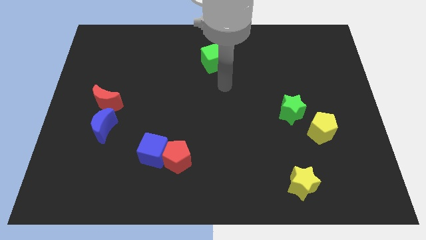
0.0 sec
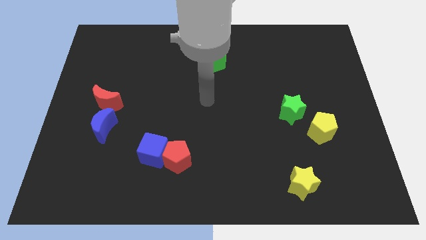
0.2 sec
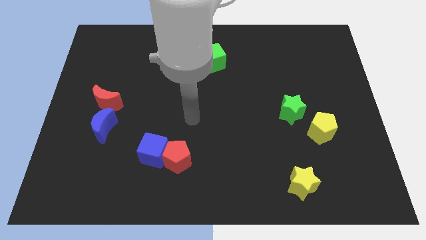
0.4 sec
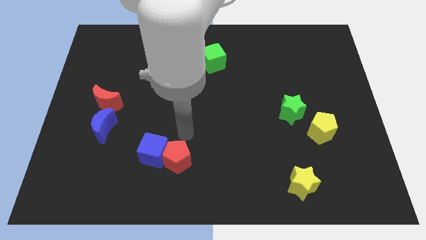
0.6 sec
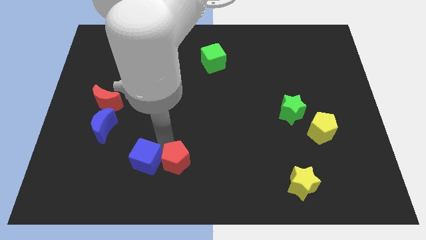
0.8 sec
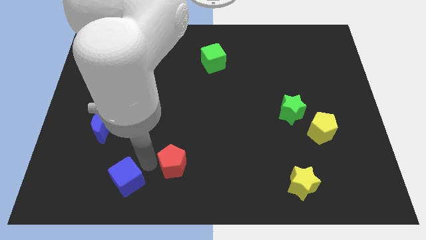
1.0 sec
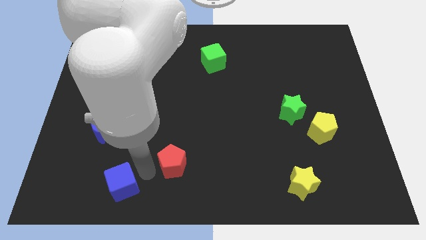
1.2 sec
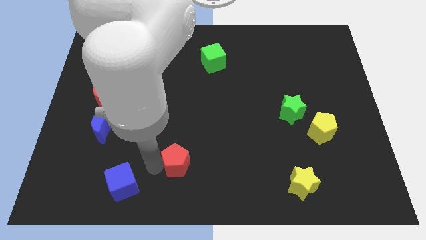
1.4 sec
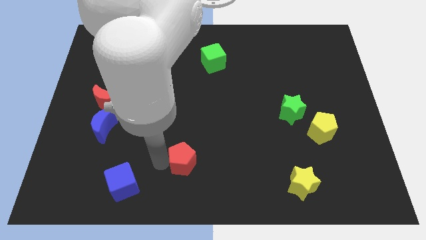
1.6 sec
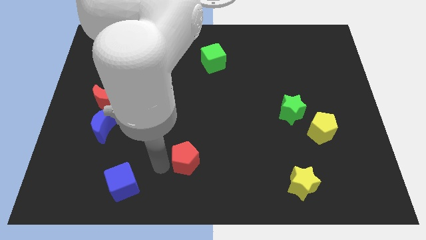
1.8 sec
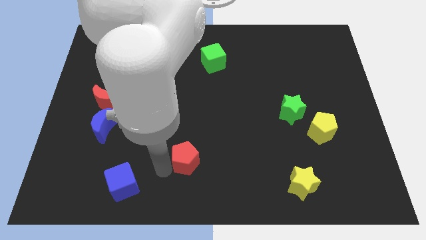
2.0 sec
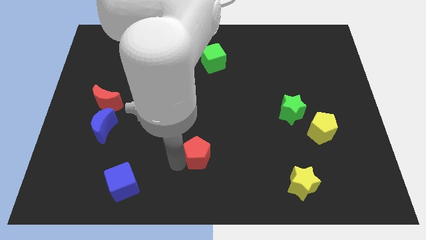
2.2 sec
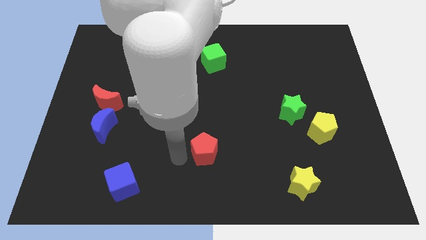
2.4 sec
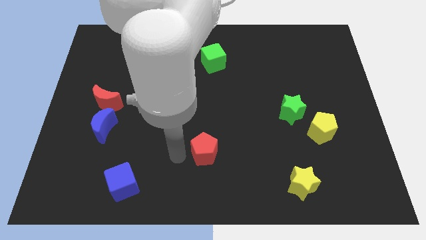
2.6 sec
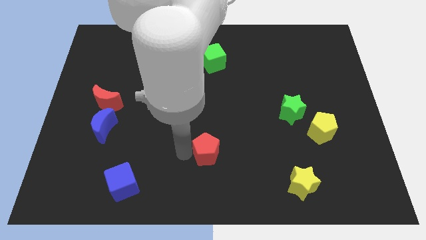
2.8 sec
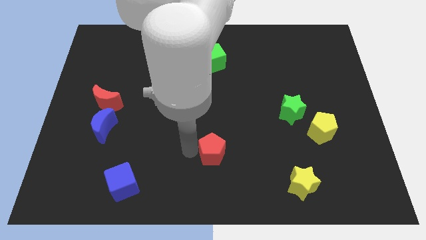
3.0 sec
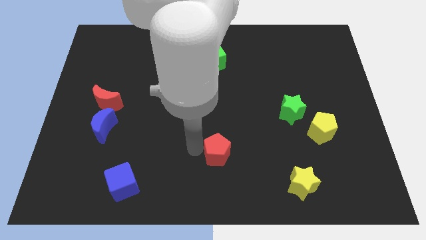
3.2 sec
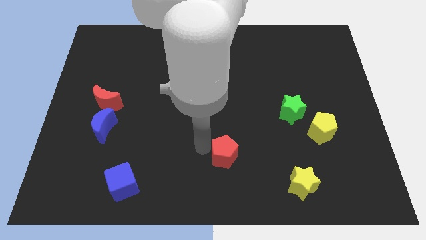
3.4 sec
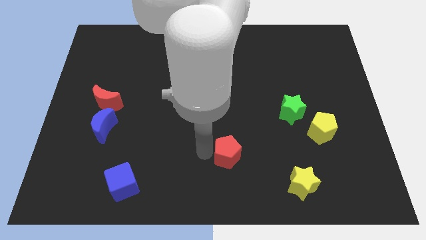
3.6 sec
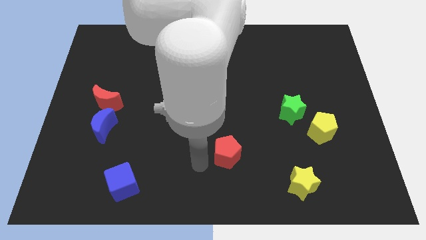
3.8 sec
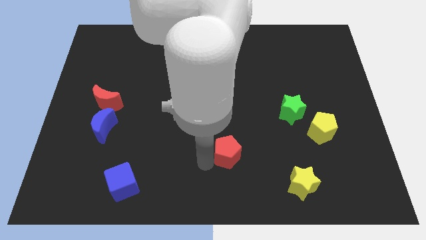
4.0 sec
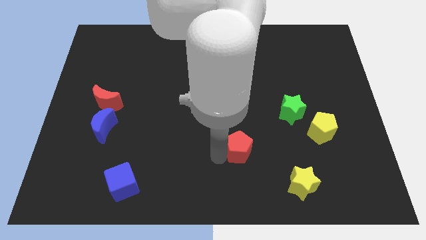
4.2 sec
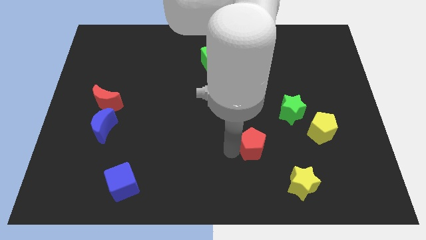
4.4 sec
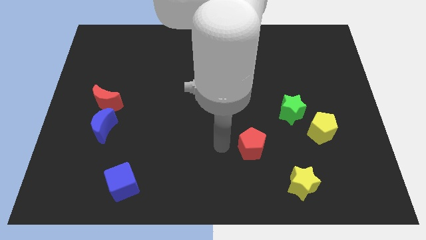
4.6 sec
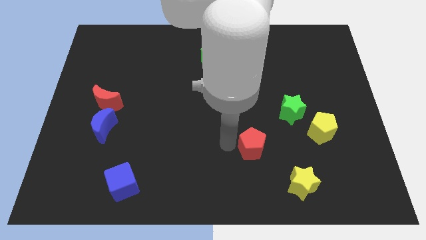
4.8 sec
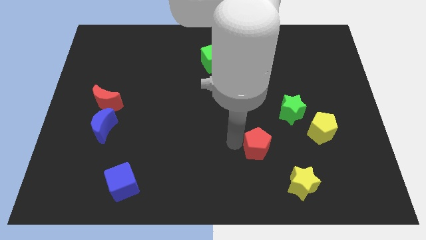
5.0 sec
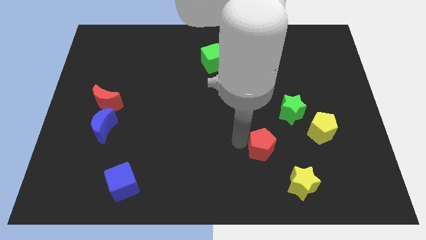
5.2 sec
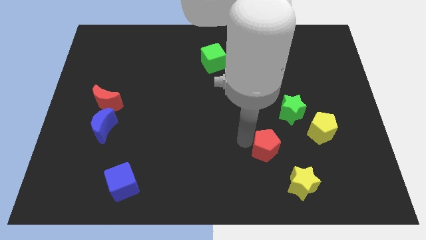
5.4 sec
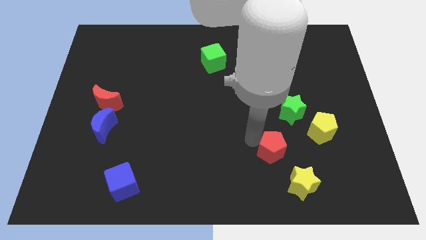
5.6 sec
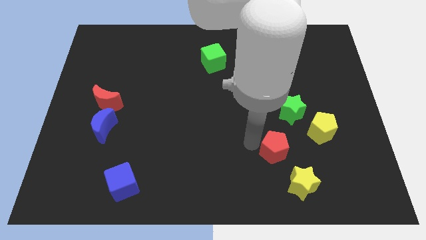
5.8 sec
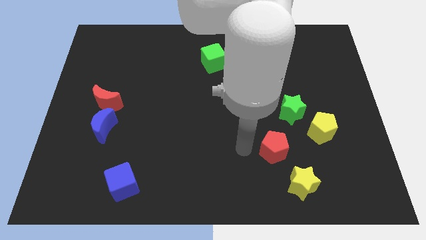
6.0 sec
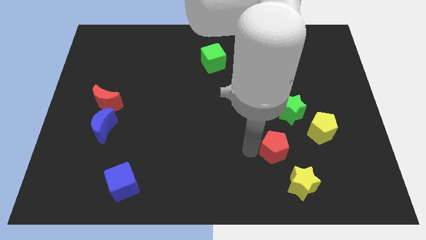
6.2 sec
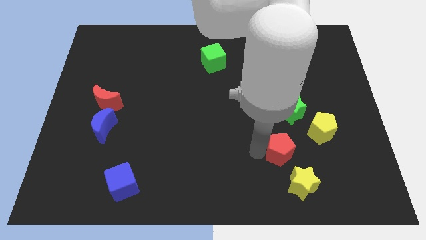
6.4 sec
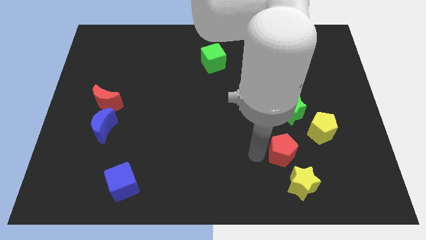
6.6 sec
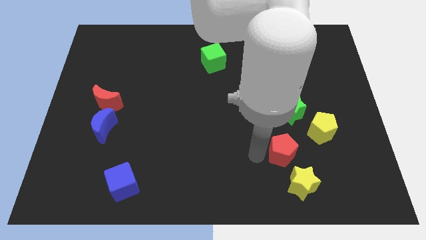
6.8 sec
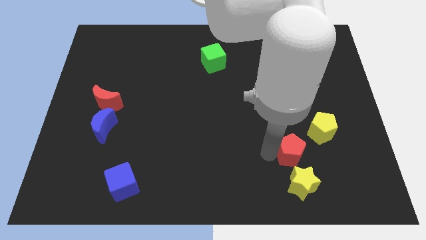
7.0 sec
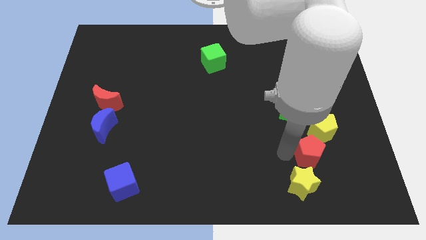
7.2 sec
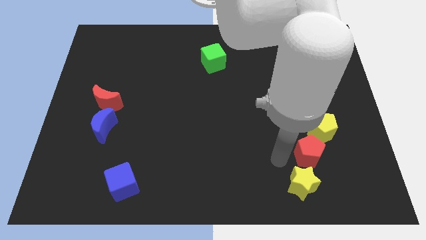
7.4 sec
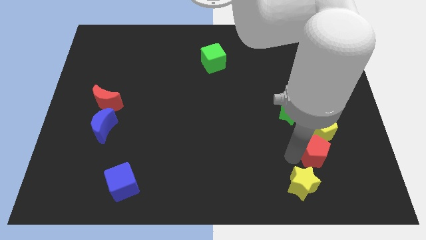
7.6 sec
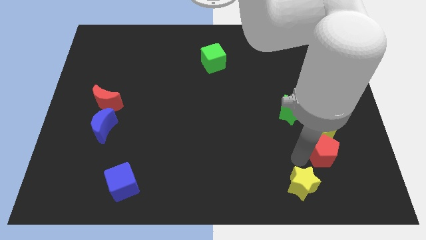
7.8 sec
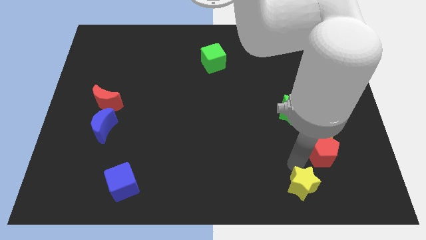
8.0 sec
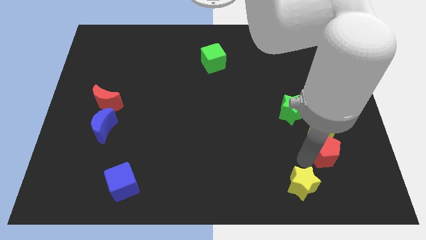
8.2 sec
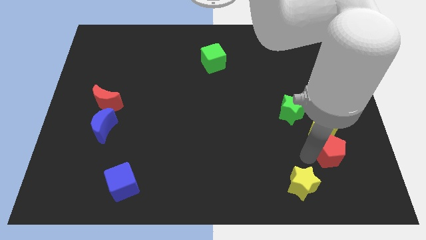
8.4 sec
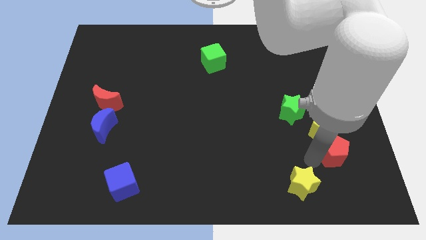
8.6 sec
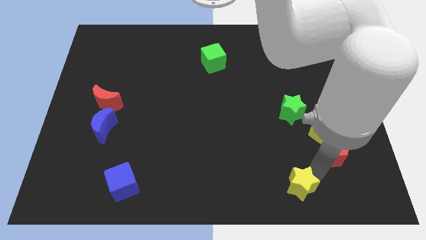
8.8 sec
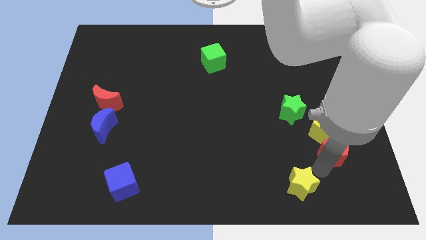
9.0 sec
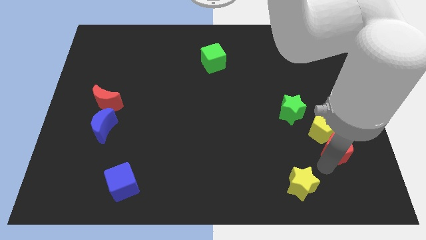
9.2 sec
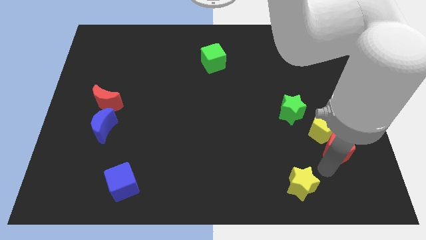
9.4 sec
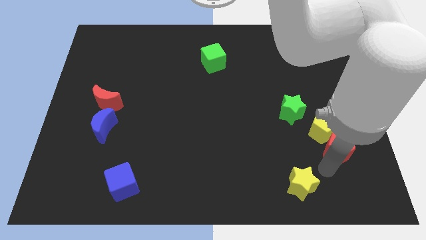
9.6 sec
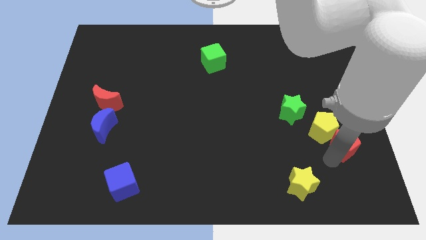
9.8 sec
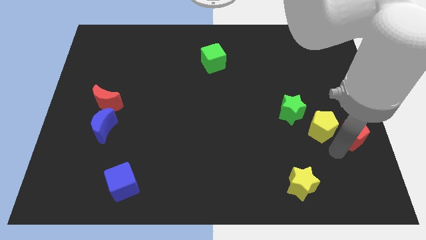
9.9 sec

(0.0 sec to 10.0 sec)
push the red pentagon to the right side of the board

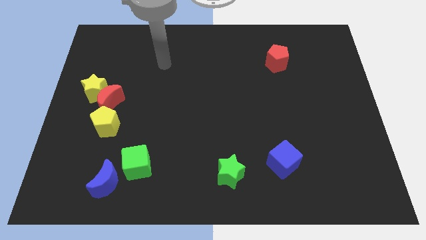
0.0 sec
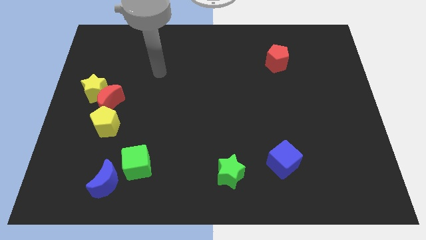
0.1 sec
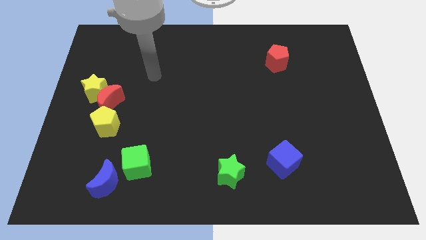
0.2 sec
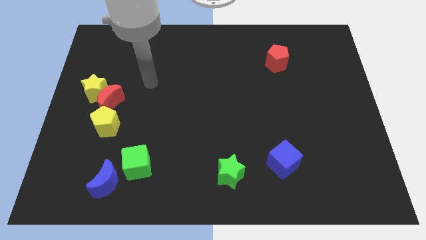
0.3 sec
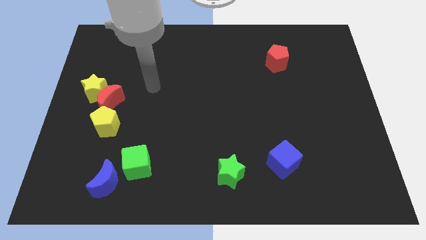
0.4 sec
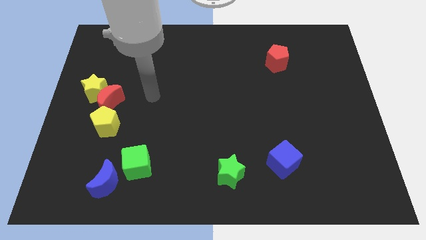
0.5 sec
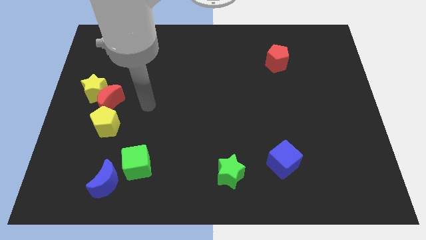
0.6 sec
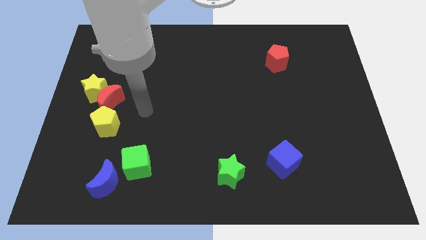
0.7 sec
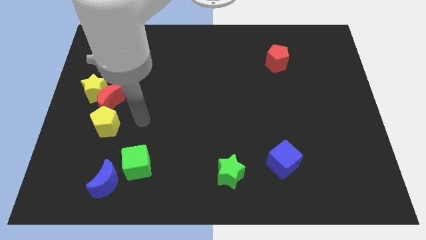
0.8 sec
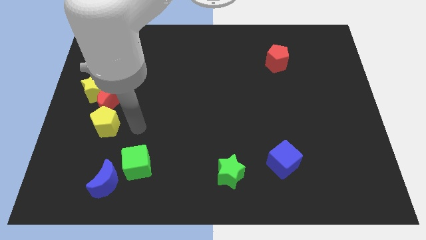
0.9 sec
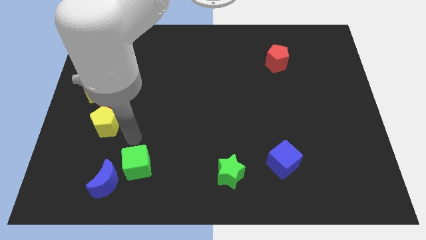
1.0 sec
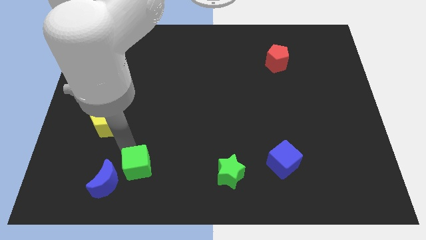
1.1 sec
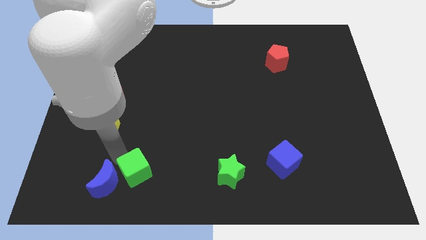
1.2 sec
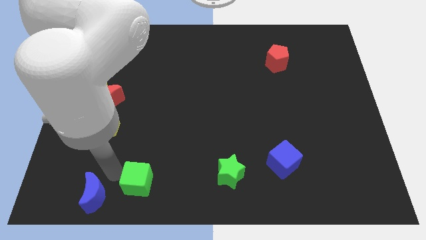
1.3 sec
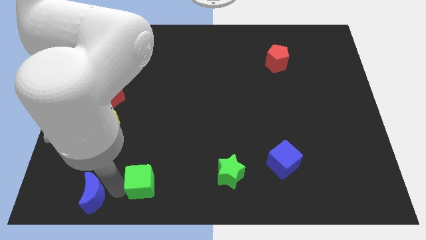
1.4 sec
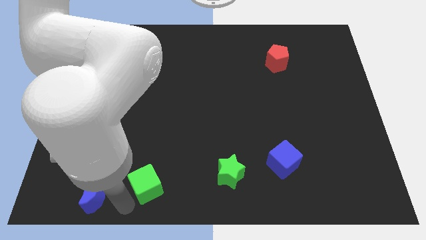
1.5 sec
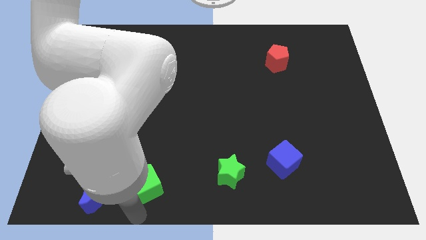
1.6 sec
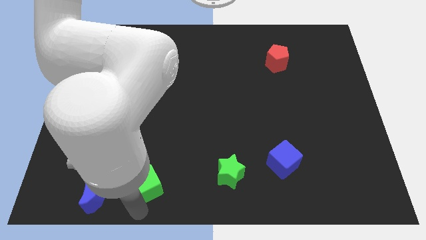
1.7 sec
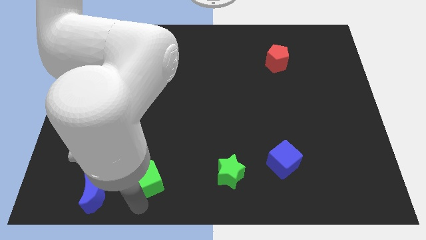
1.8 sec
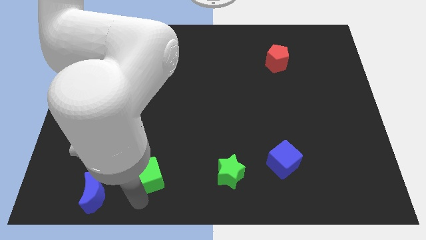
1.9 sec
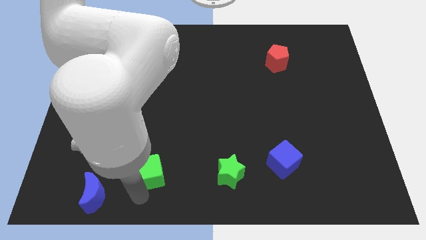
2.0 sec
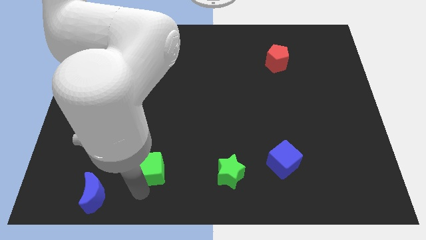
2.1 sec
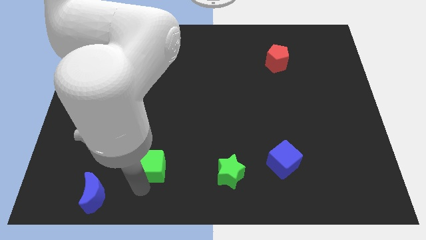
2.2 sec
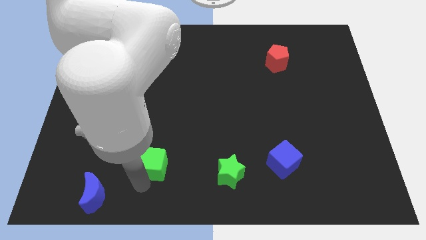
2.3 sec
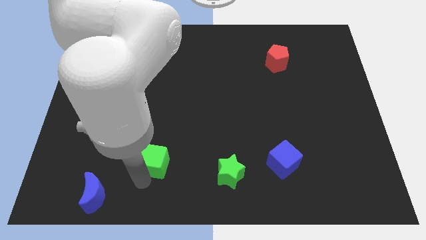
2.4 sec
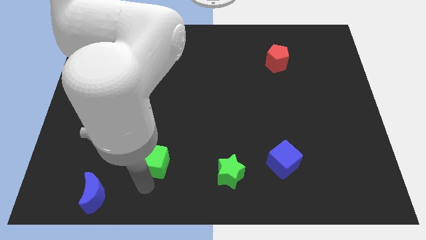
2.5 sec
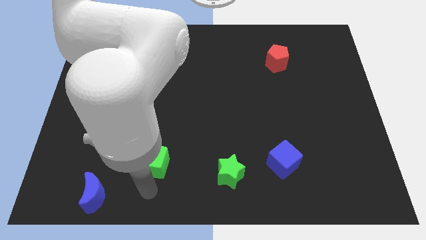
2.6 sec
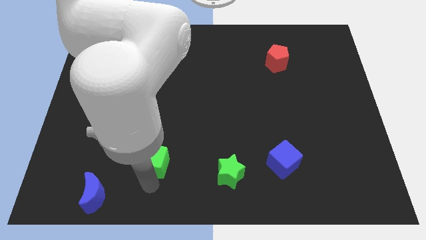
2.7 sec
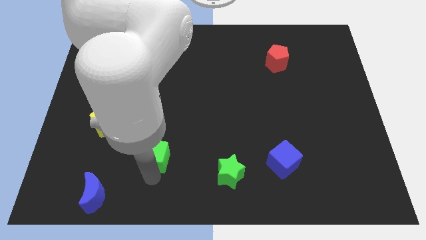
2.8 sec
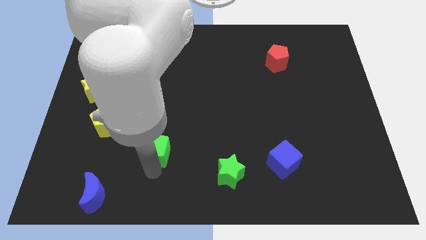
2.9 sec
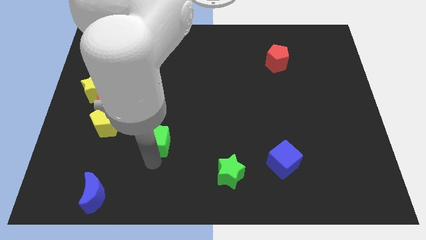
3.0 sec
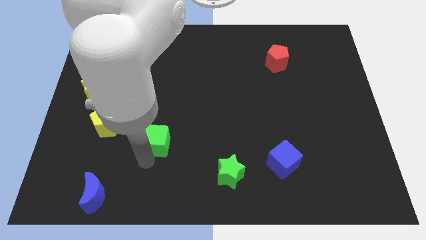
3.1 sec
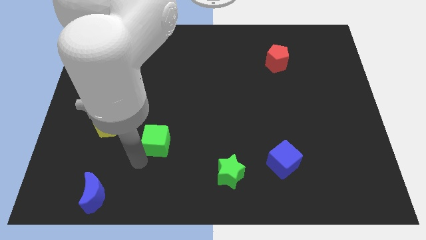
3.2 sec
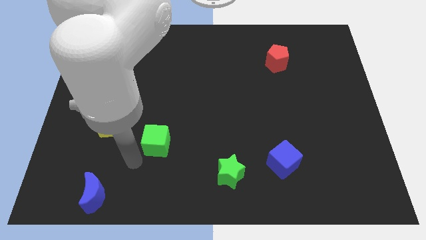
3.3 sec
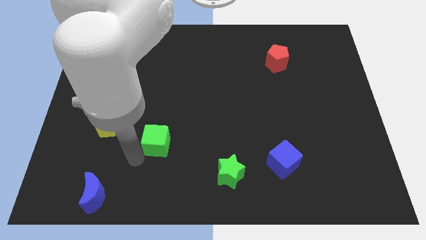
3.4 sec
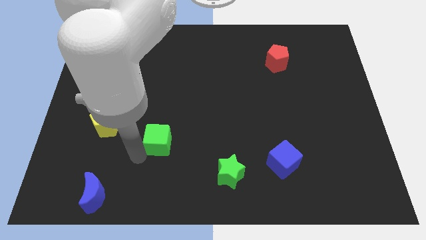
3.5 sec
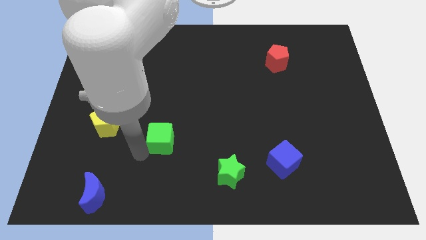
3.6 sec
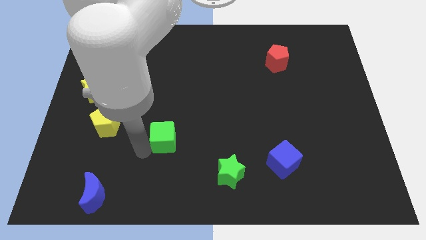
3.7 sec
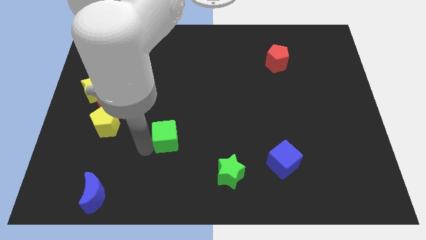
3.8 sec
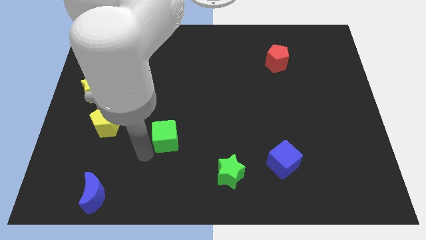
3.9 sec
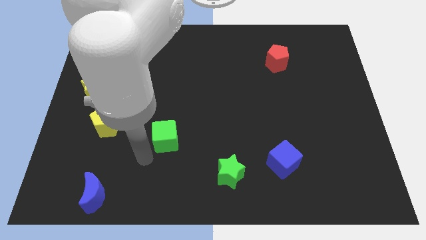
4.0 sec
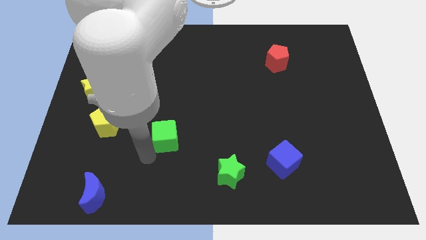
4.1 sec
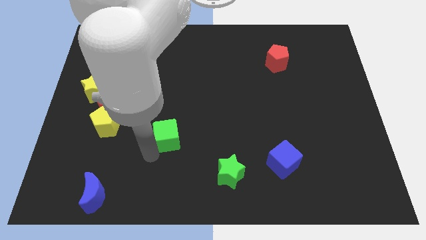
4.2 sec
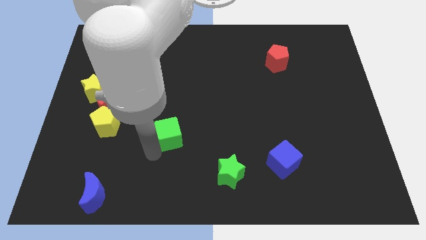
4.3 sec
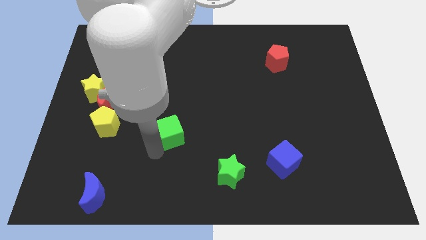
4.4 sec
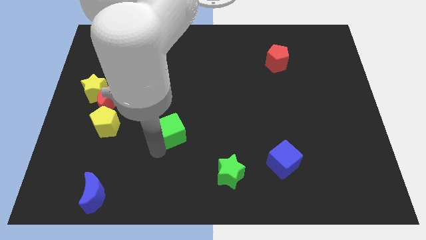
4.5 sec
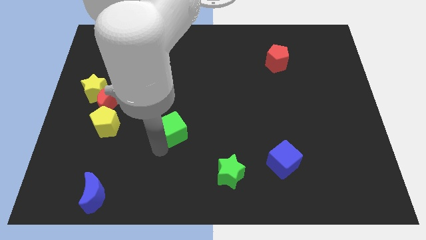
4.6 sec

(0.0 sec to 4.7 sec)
move the green cube to the center of the board
